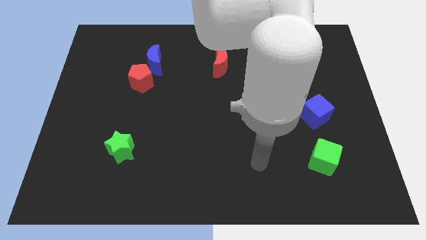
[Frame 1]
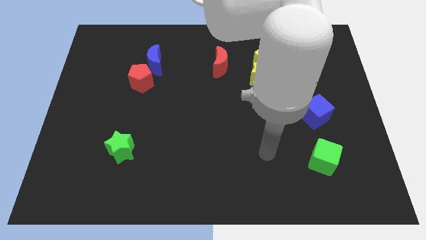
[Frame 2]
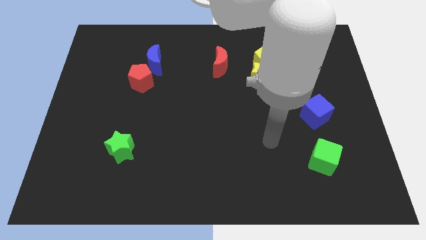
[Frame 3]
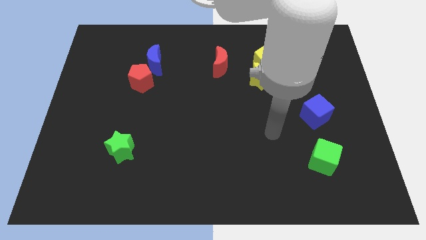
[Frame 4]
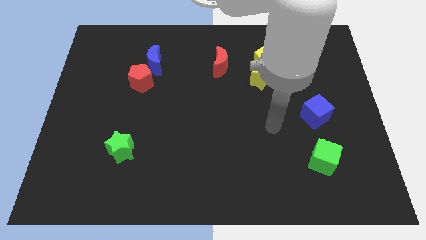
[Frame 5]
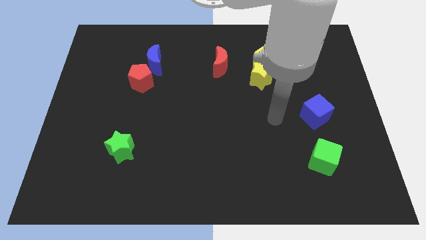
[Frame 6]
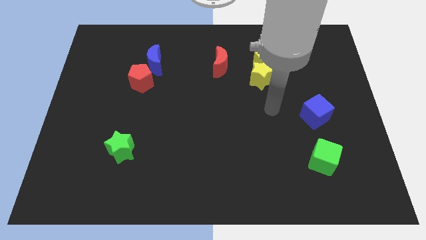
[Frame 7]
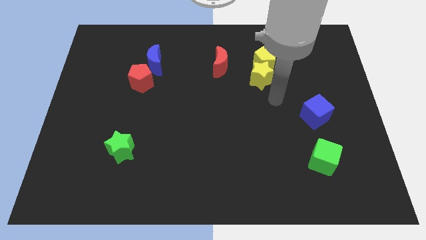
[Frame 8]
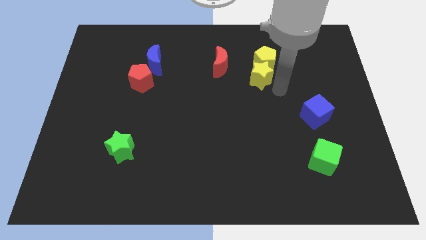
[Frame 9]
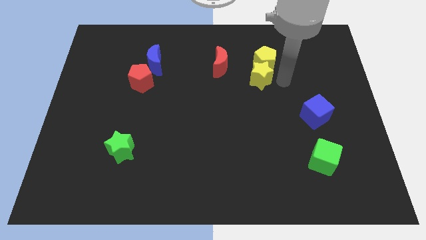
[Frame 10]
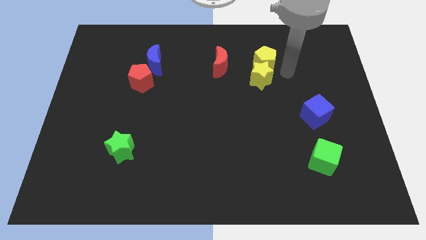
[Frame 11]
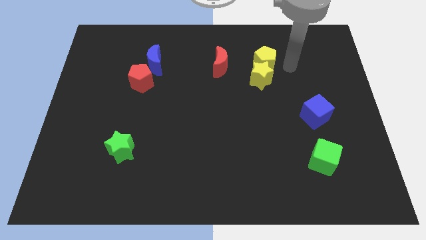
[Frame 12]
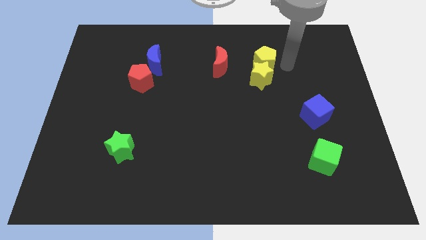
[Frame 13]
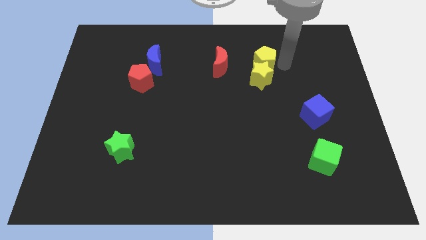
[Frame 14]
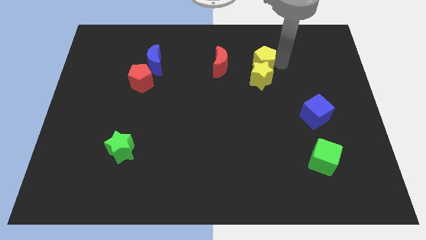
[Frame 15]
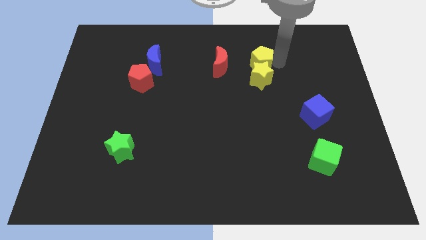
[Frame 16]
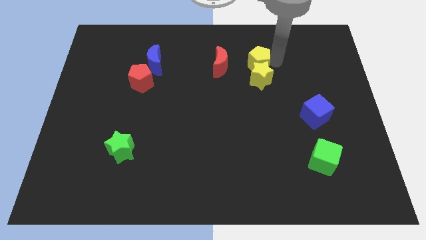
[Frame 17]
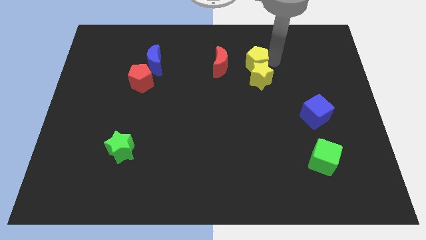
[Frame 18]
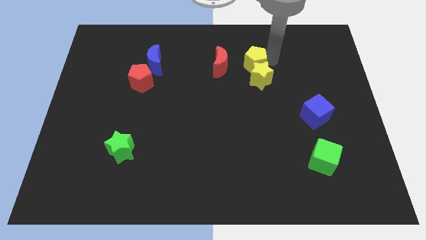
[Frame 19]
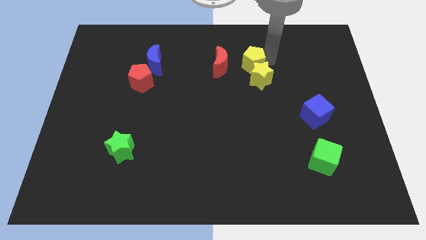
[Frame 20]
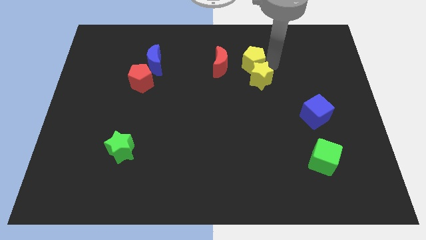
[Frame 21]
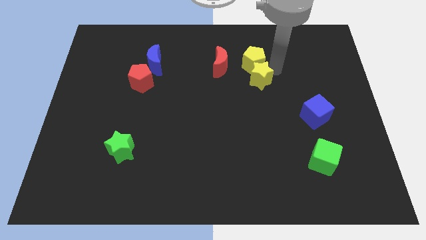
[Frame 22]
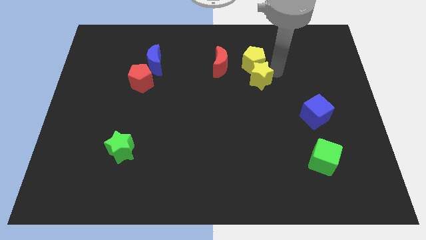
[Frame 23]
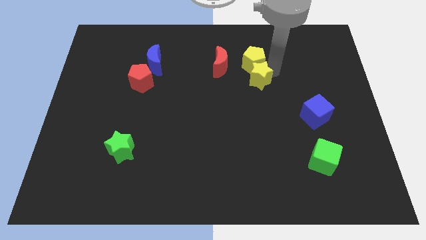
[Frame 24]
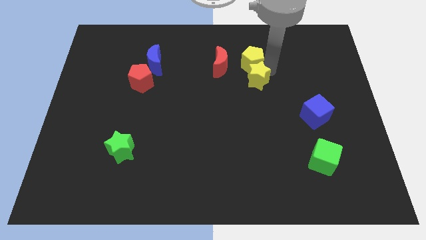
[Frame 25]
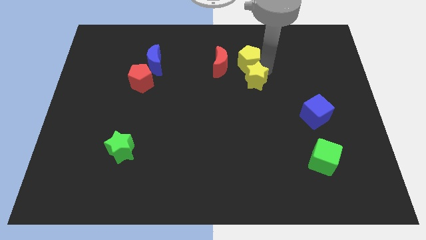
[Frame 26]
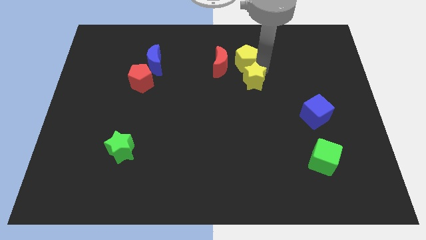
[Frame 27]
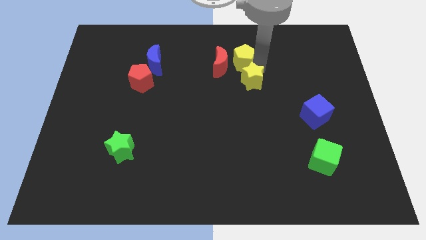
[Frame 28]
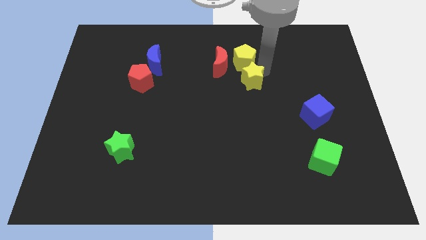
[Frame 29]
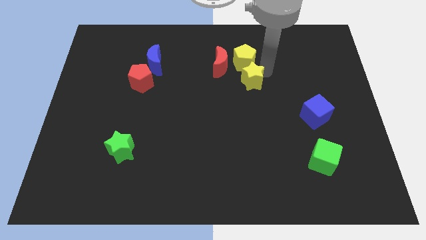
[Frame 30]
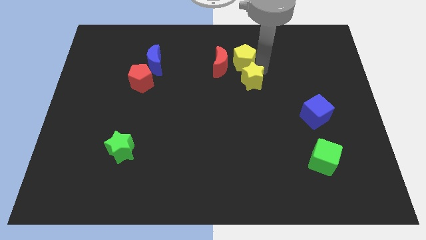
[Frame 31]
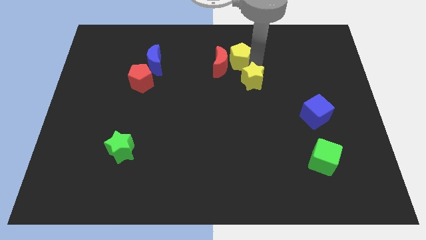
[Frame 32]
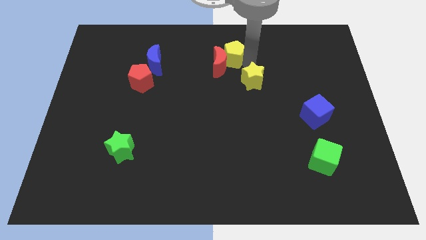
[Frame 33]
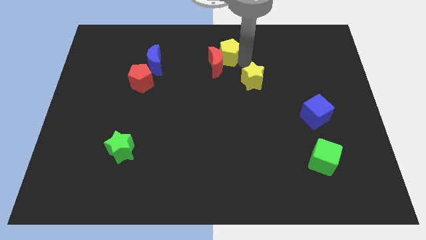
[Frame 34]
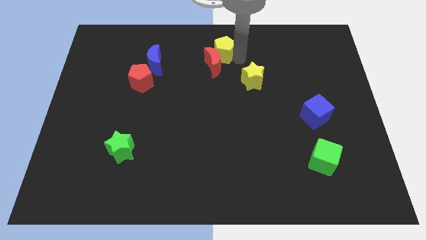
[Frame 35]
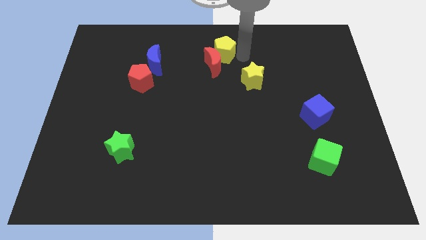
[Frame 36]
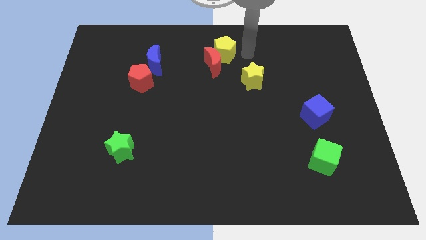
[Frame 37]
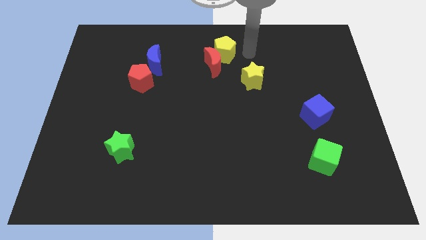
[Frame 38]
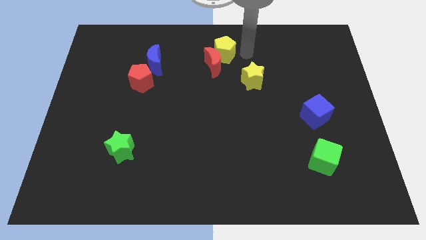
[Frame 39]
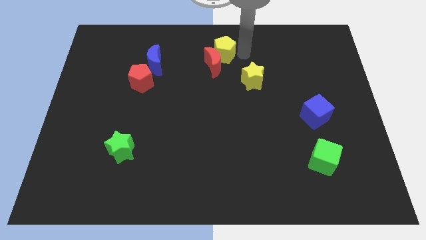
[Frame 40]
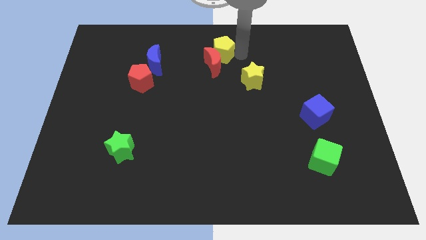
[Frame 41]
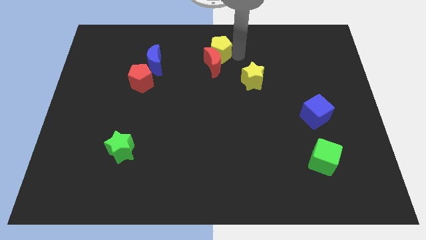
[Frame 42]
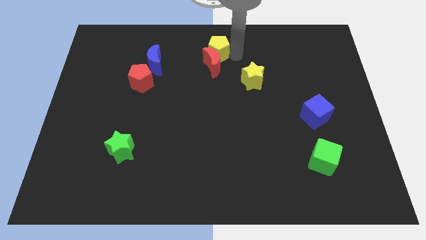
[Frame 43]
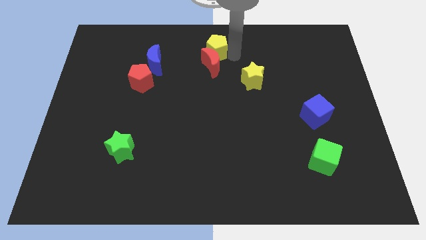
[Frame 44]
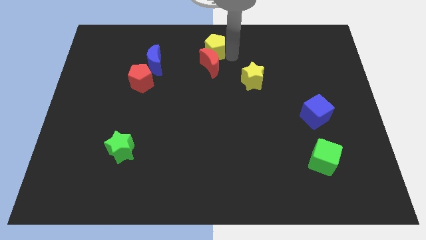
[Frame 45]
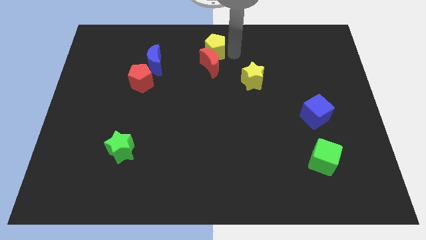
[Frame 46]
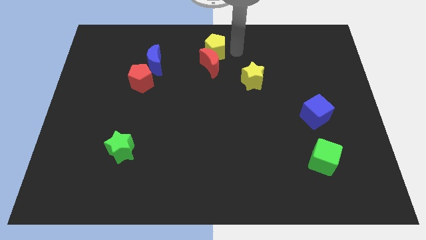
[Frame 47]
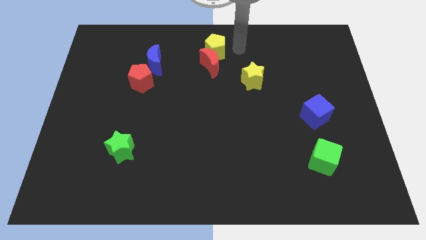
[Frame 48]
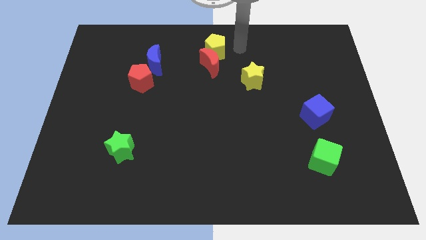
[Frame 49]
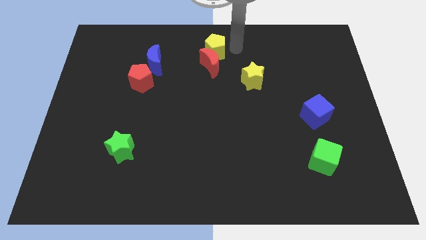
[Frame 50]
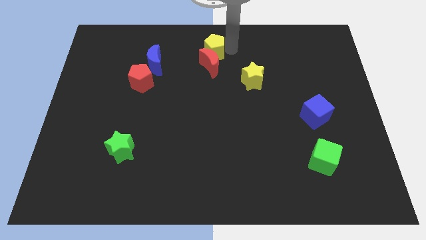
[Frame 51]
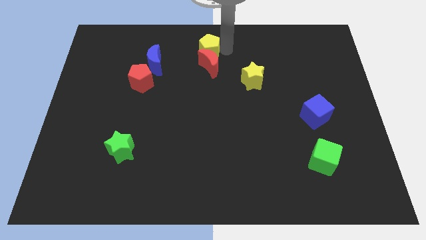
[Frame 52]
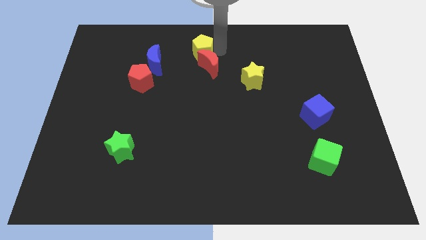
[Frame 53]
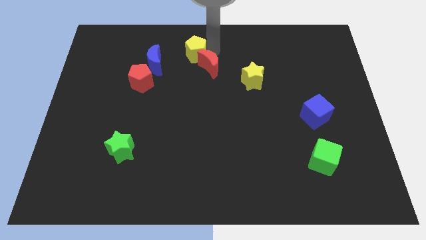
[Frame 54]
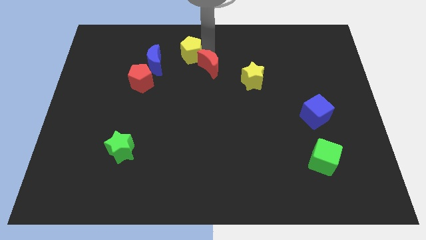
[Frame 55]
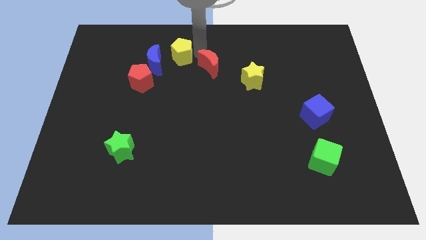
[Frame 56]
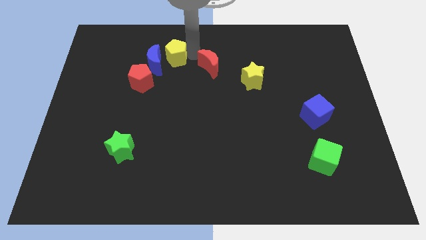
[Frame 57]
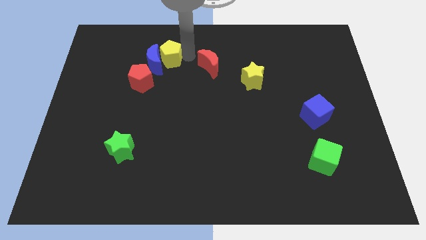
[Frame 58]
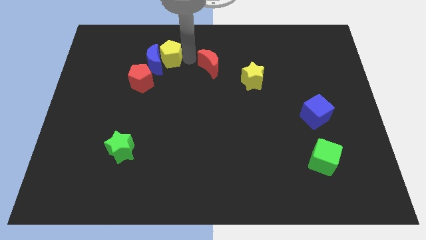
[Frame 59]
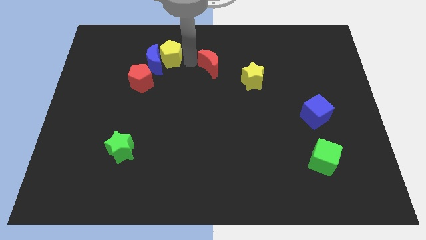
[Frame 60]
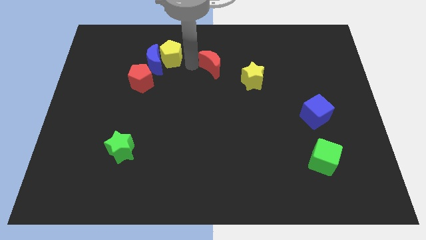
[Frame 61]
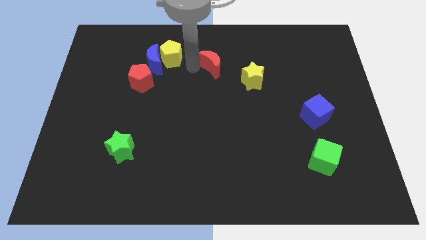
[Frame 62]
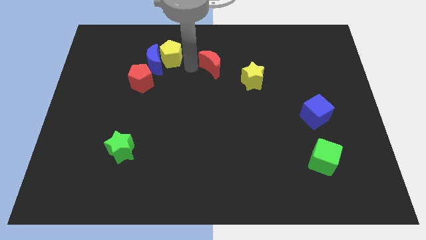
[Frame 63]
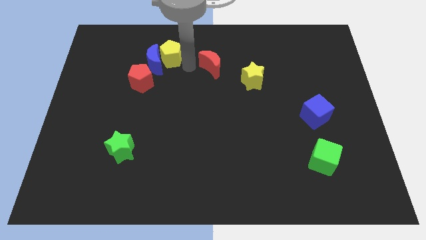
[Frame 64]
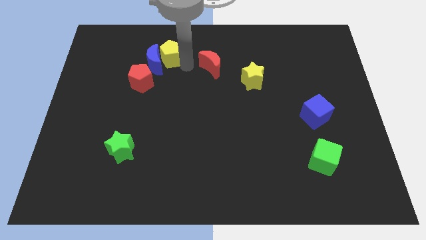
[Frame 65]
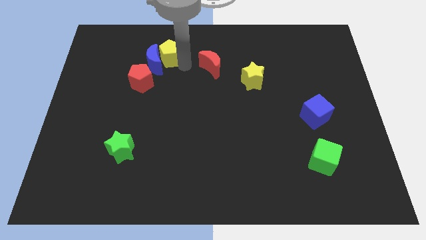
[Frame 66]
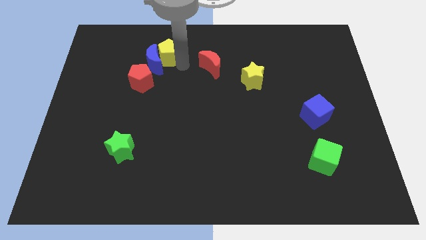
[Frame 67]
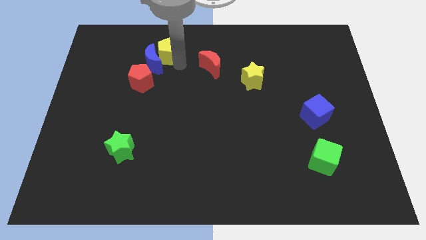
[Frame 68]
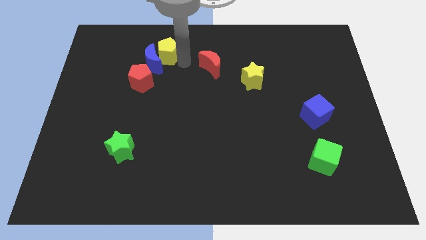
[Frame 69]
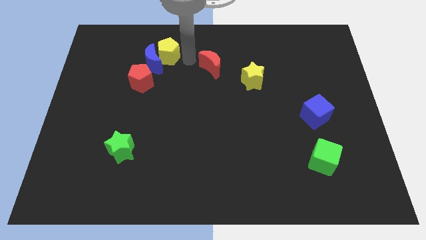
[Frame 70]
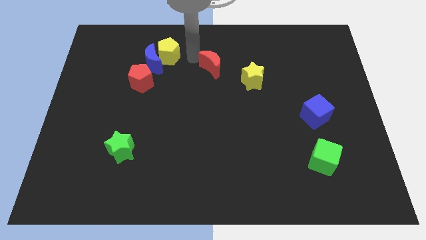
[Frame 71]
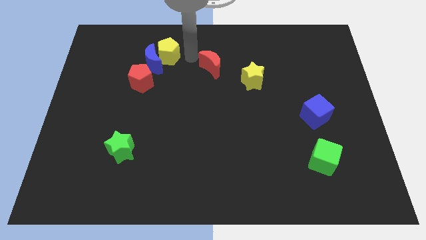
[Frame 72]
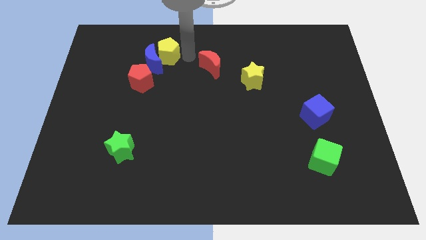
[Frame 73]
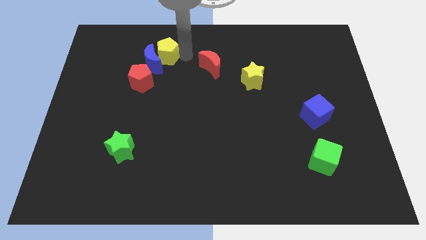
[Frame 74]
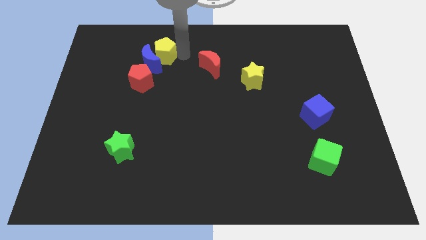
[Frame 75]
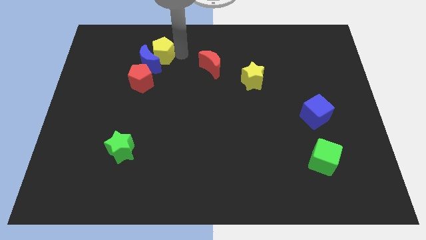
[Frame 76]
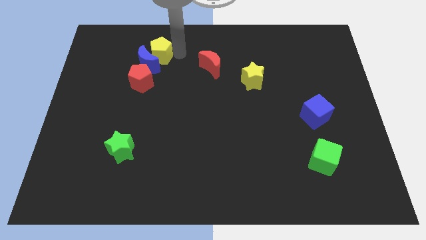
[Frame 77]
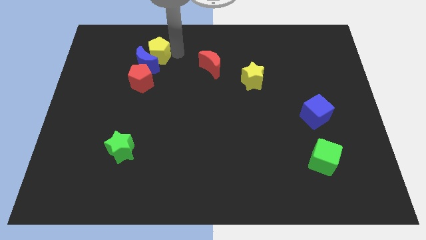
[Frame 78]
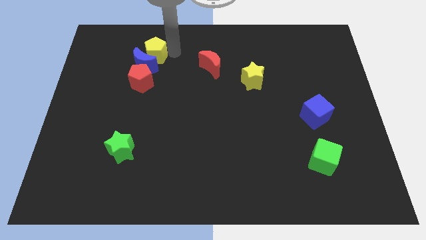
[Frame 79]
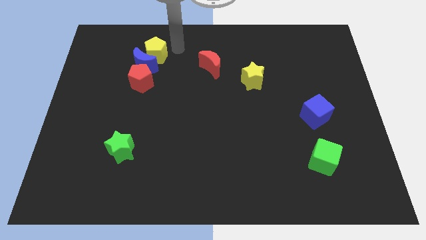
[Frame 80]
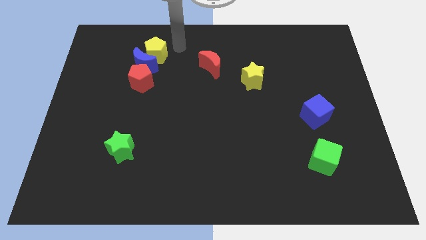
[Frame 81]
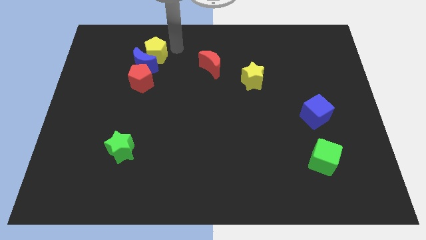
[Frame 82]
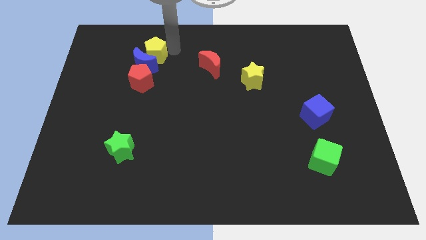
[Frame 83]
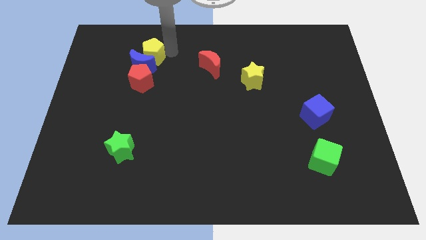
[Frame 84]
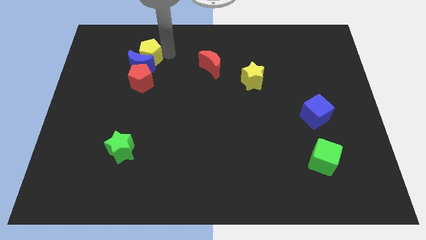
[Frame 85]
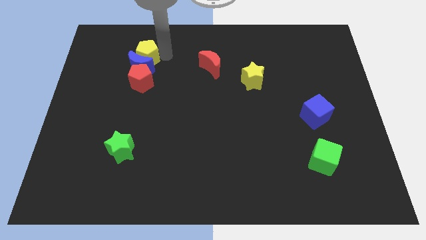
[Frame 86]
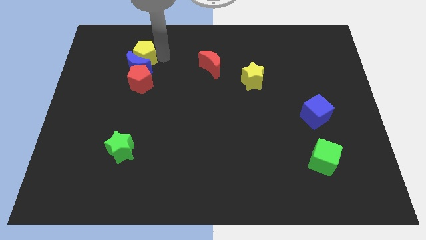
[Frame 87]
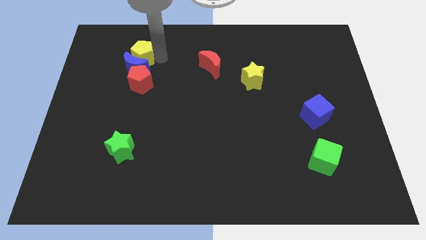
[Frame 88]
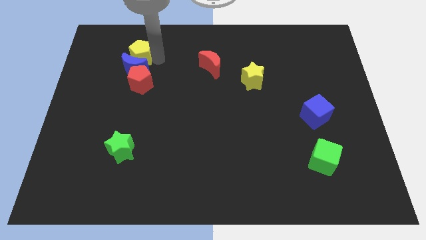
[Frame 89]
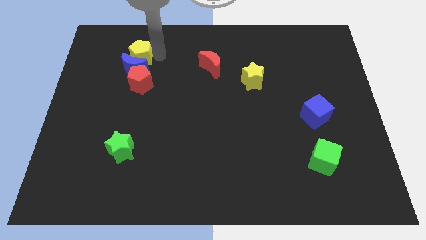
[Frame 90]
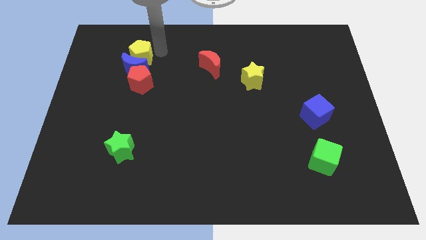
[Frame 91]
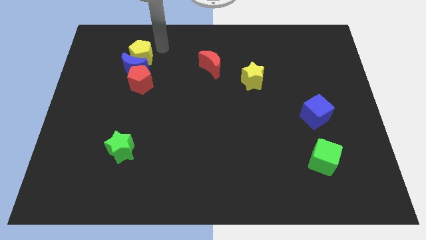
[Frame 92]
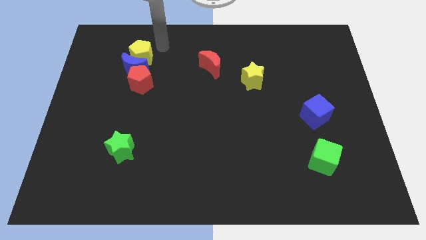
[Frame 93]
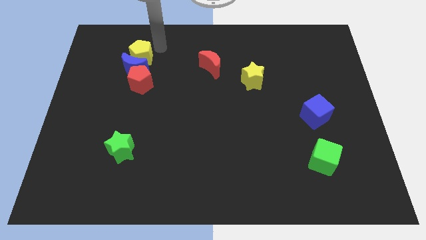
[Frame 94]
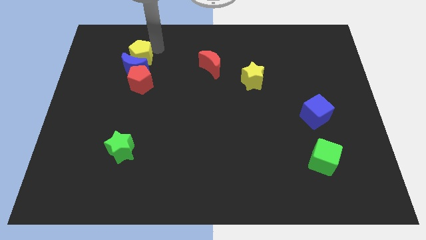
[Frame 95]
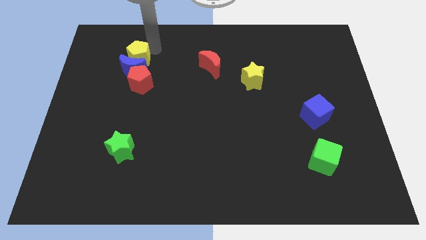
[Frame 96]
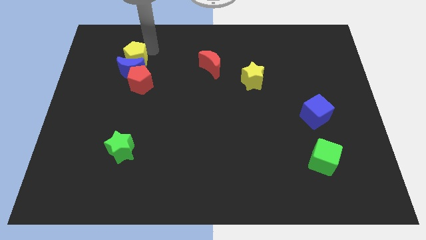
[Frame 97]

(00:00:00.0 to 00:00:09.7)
move the yellow pentagon diagonally up and to the left of the red pentagon
